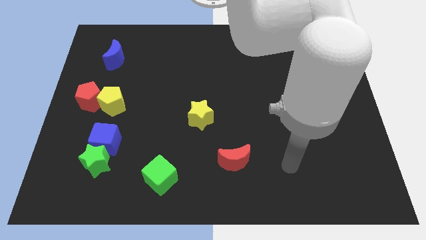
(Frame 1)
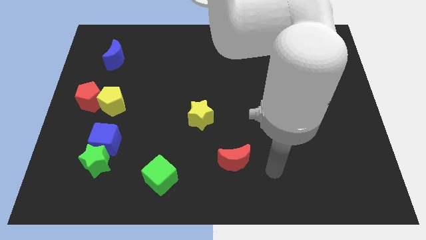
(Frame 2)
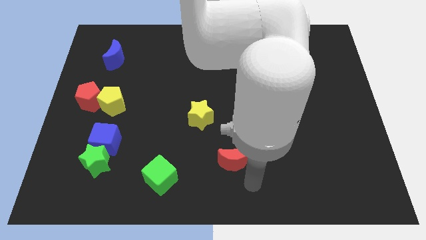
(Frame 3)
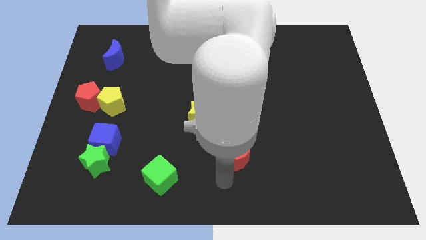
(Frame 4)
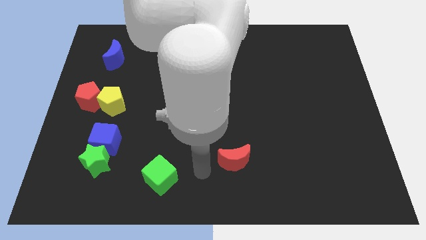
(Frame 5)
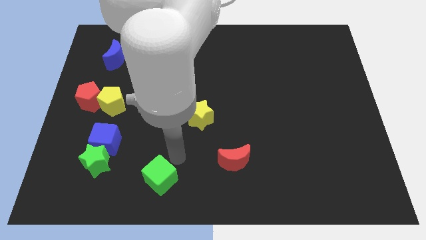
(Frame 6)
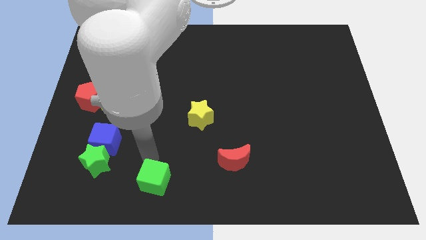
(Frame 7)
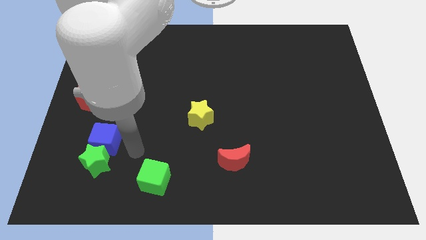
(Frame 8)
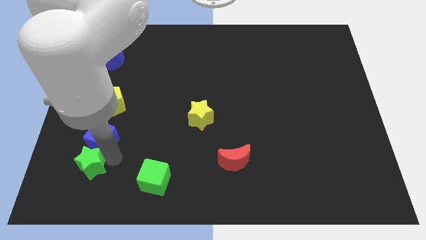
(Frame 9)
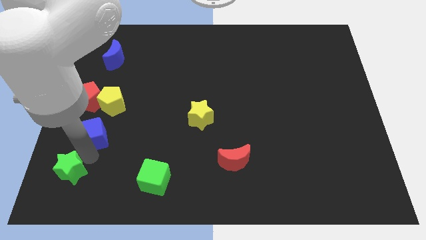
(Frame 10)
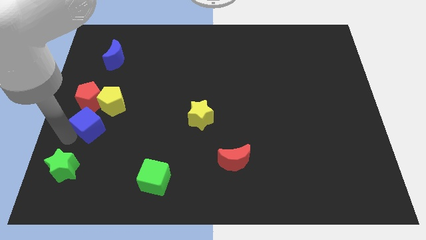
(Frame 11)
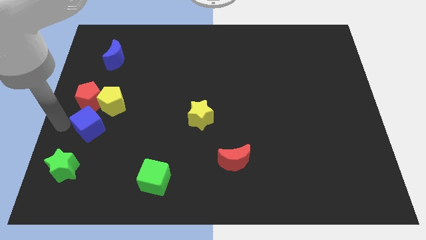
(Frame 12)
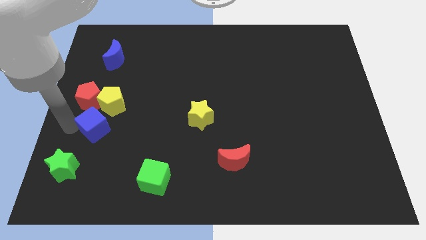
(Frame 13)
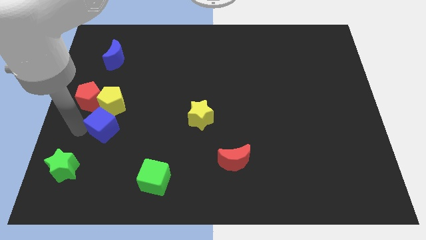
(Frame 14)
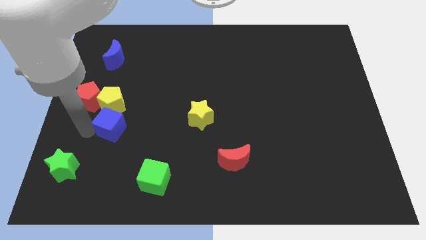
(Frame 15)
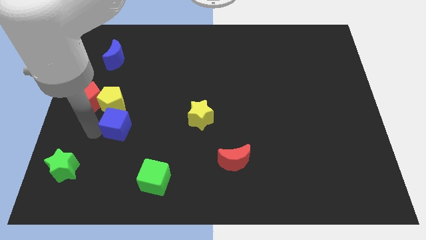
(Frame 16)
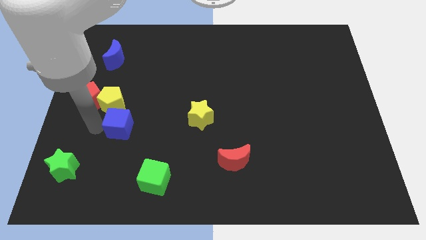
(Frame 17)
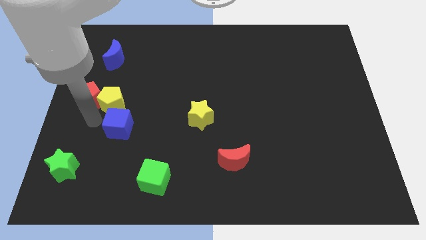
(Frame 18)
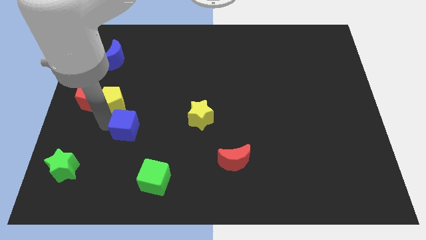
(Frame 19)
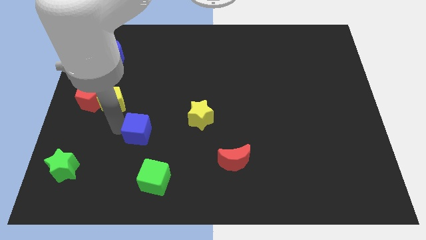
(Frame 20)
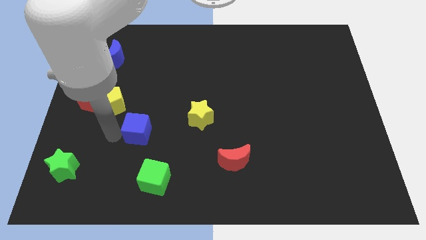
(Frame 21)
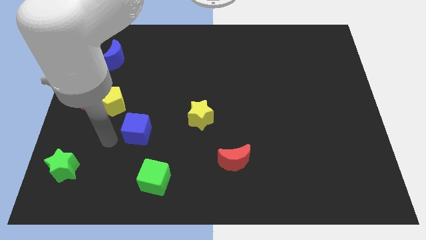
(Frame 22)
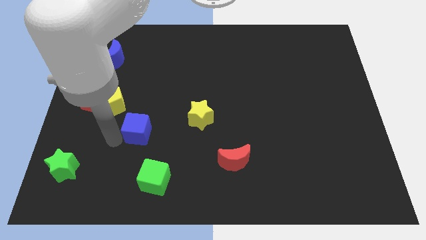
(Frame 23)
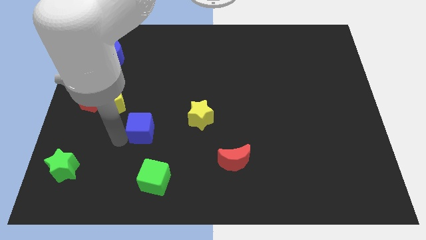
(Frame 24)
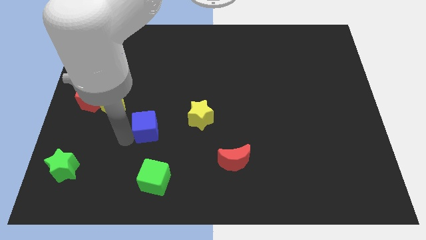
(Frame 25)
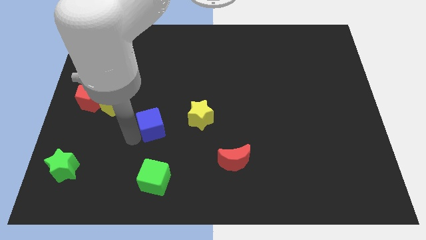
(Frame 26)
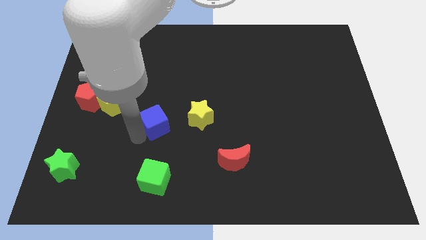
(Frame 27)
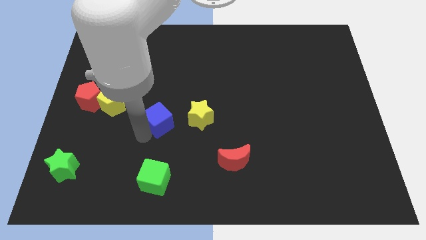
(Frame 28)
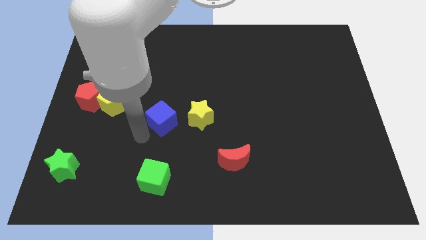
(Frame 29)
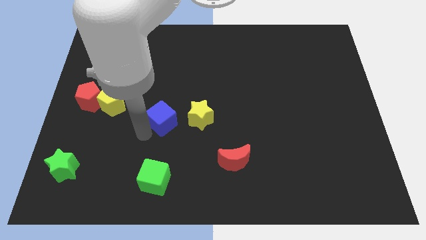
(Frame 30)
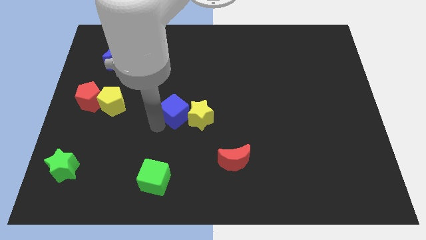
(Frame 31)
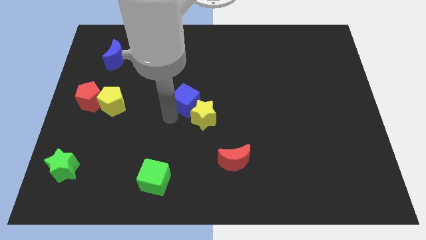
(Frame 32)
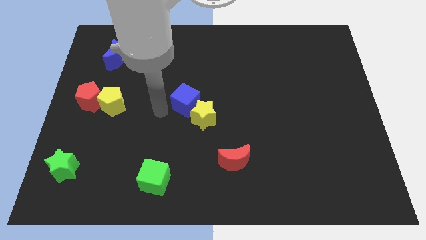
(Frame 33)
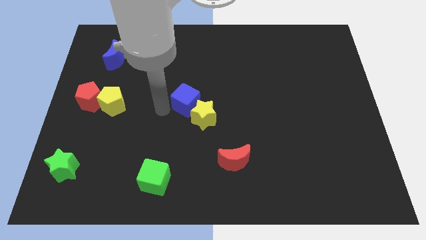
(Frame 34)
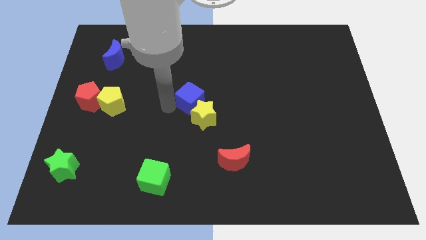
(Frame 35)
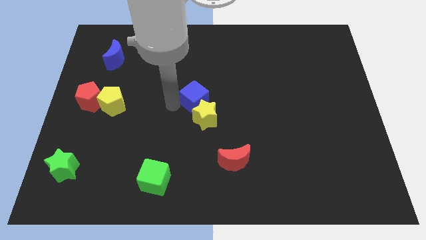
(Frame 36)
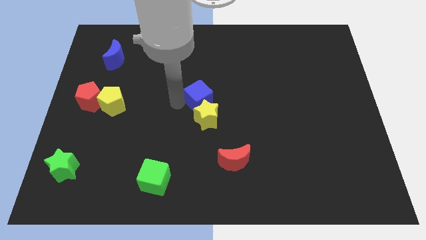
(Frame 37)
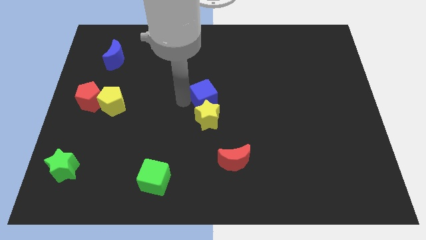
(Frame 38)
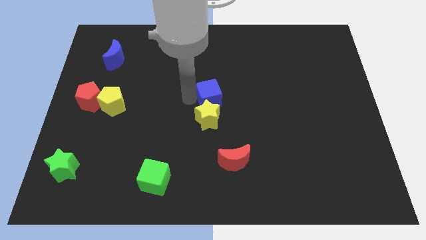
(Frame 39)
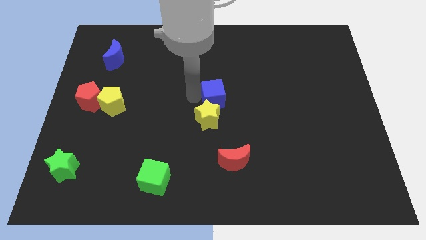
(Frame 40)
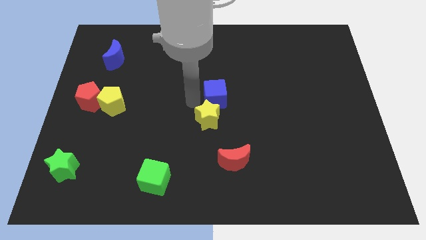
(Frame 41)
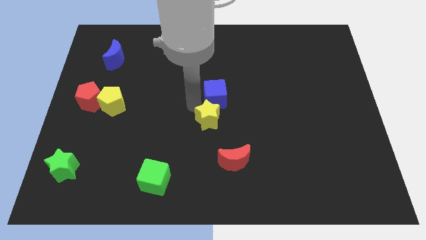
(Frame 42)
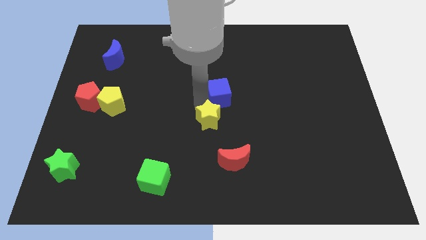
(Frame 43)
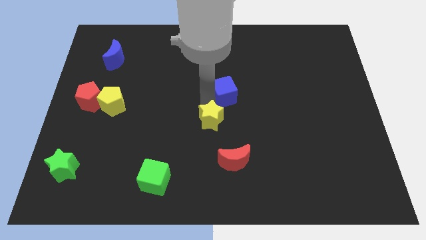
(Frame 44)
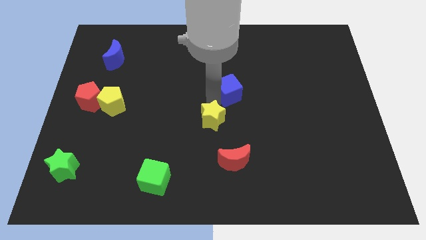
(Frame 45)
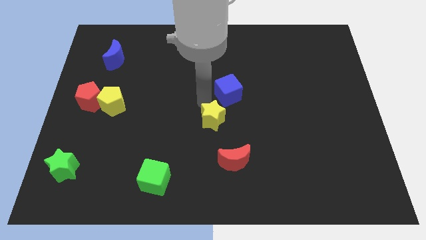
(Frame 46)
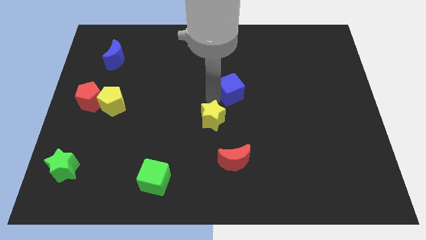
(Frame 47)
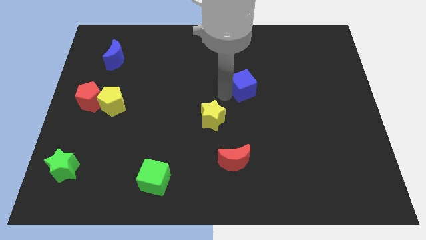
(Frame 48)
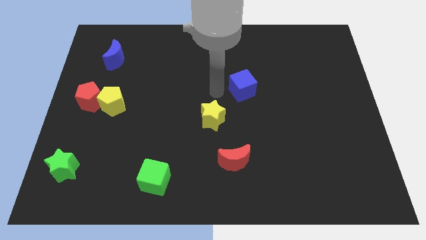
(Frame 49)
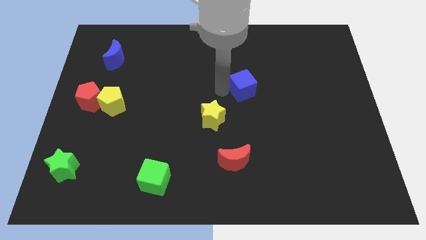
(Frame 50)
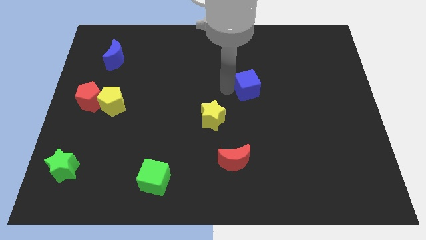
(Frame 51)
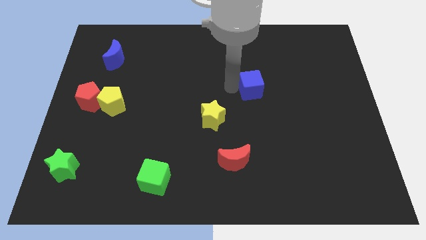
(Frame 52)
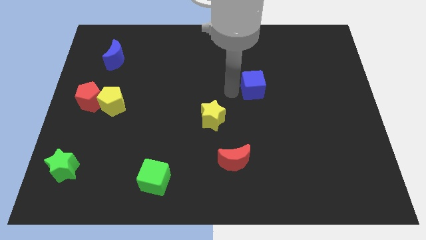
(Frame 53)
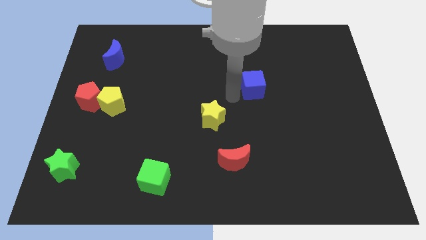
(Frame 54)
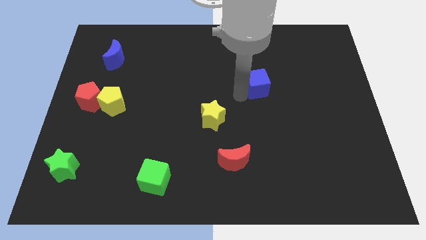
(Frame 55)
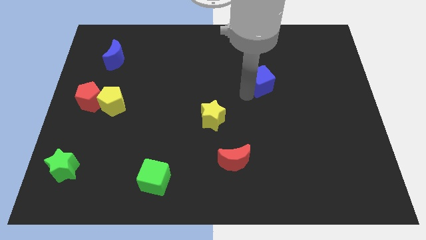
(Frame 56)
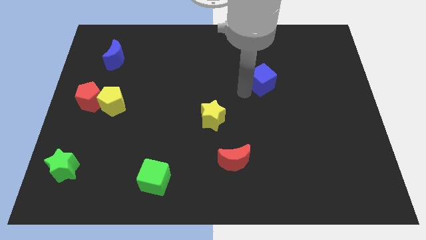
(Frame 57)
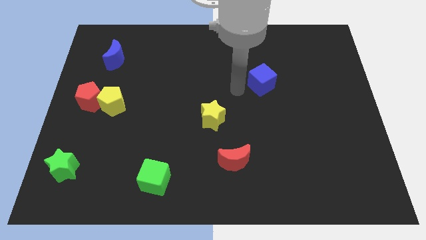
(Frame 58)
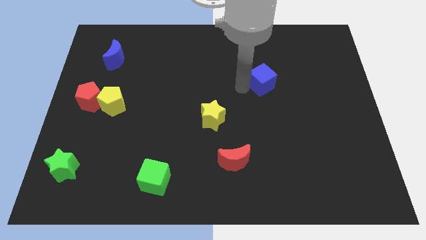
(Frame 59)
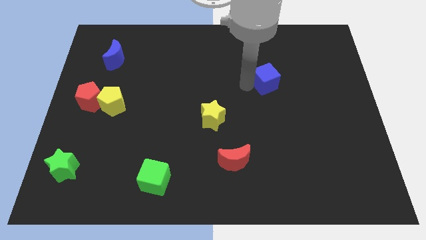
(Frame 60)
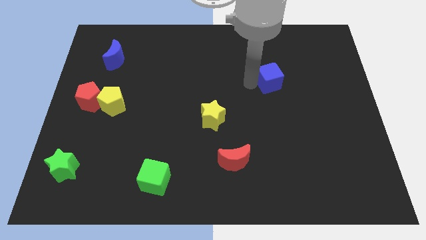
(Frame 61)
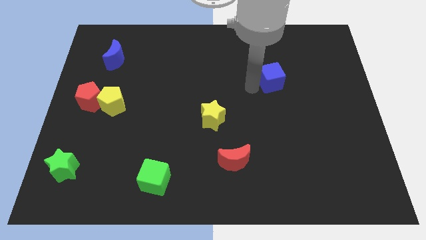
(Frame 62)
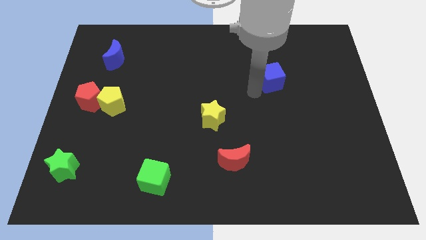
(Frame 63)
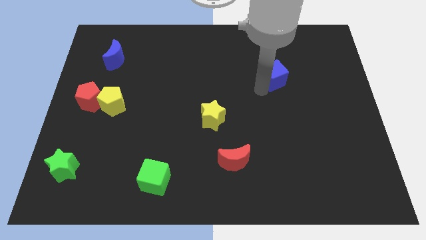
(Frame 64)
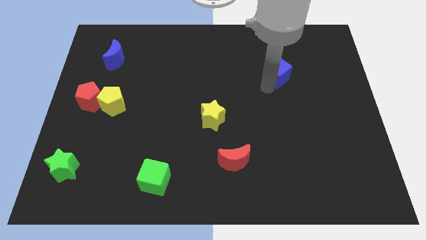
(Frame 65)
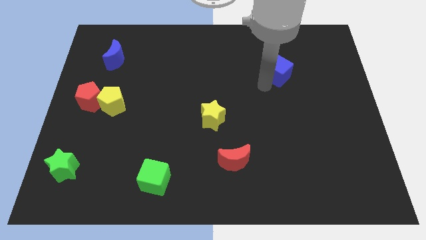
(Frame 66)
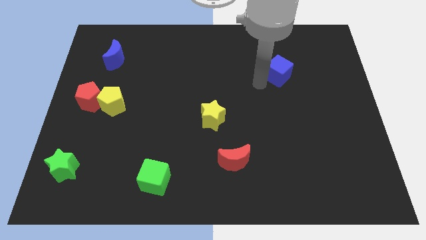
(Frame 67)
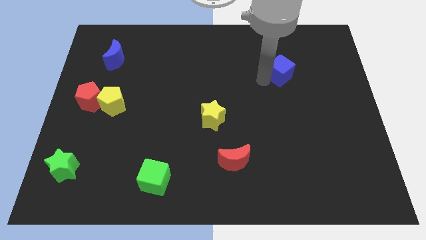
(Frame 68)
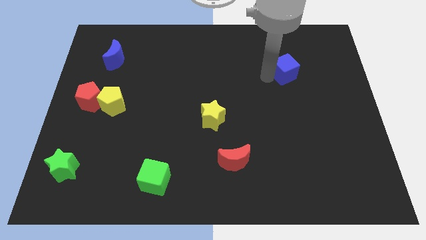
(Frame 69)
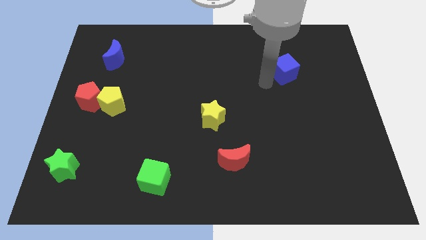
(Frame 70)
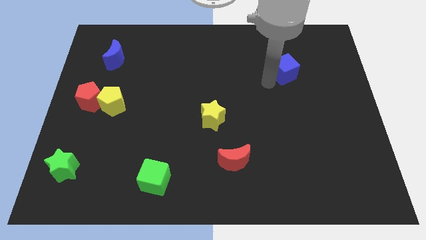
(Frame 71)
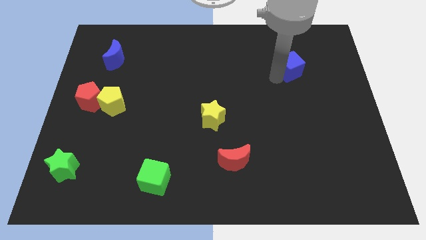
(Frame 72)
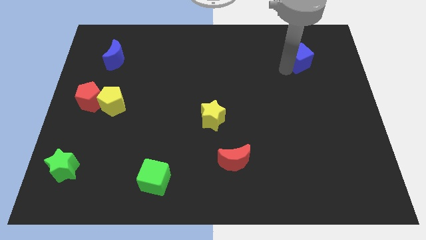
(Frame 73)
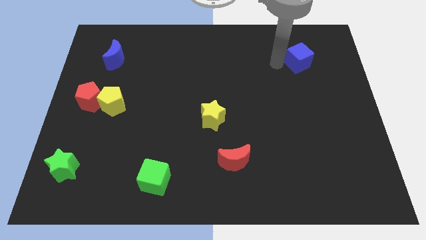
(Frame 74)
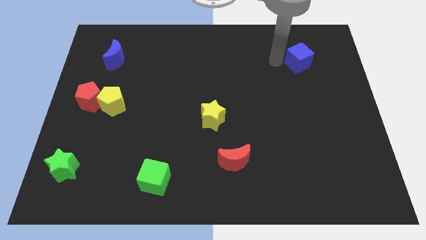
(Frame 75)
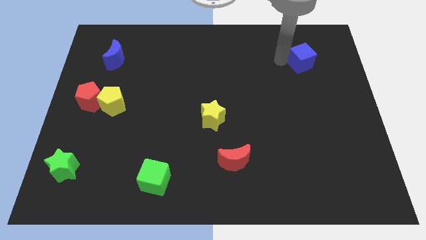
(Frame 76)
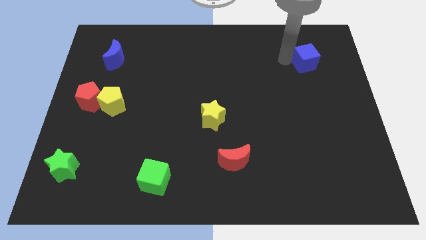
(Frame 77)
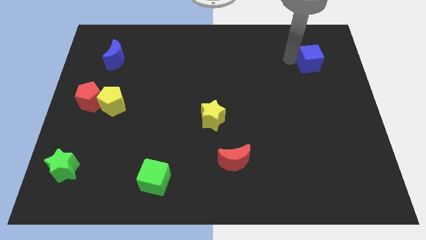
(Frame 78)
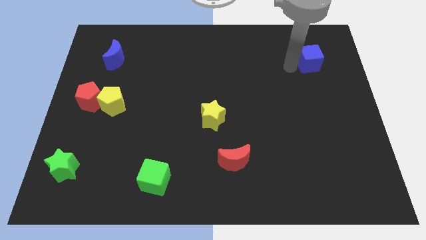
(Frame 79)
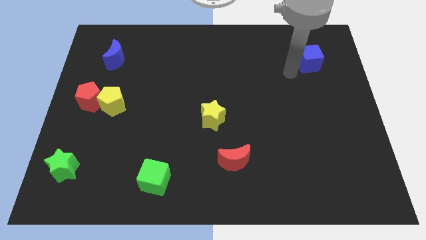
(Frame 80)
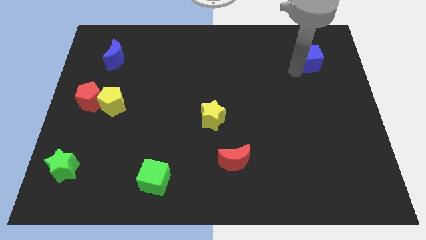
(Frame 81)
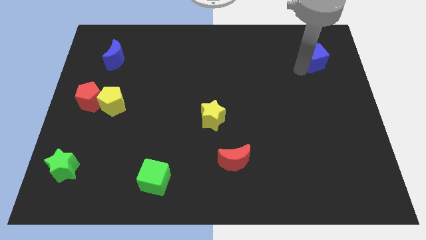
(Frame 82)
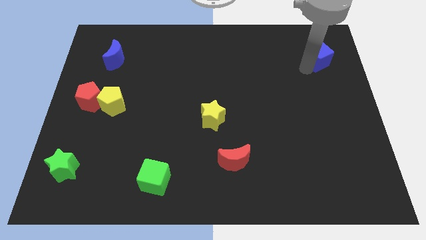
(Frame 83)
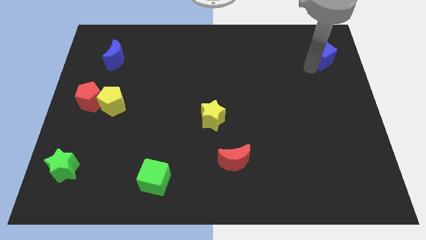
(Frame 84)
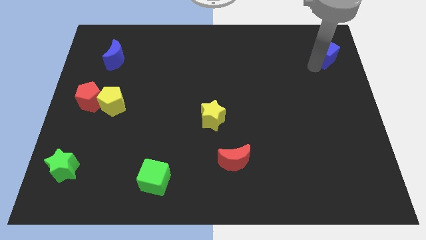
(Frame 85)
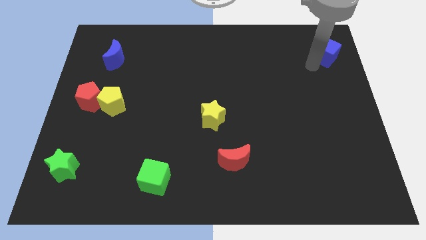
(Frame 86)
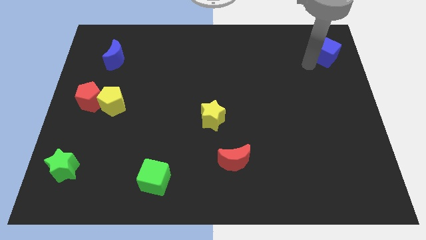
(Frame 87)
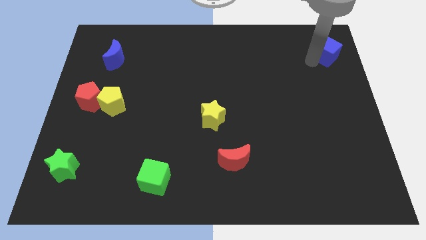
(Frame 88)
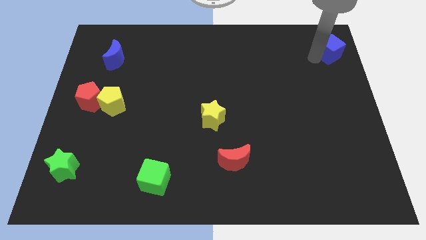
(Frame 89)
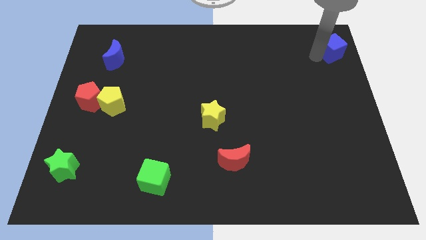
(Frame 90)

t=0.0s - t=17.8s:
put the blue cube to the top right
